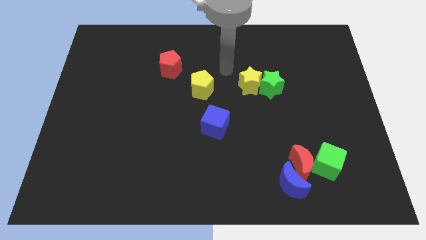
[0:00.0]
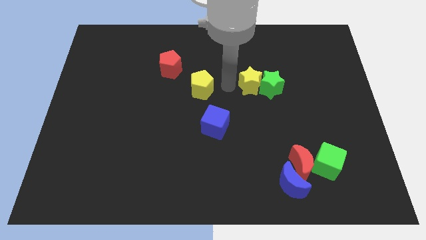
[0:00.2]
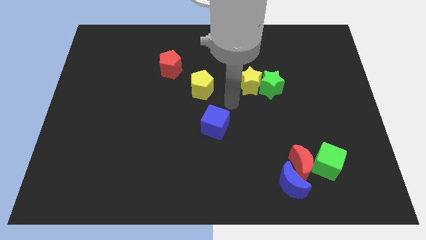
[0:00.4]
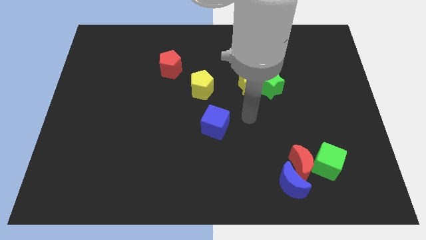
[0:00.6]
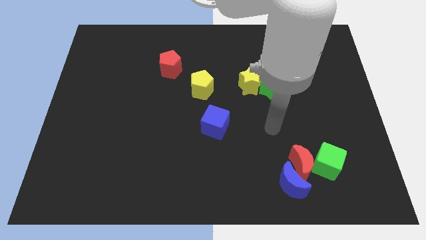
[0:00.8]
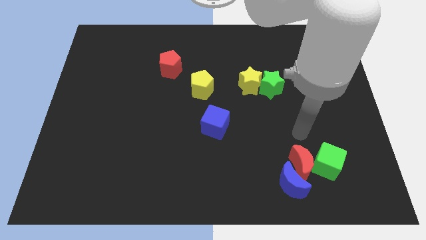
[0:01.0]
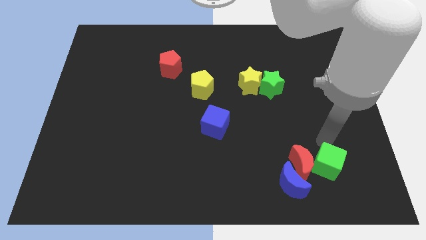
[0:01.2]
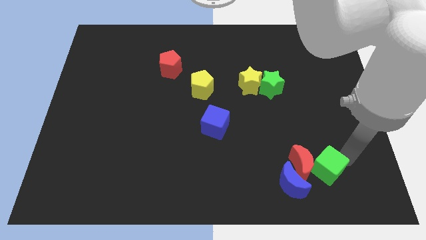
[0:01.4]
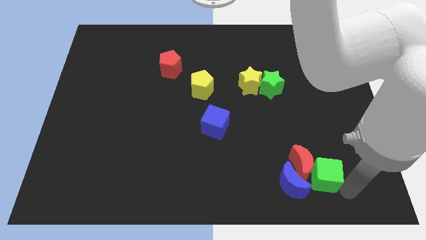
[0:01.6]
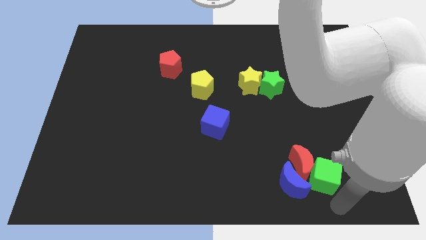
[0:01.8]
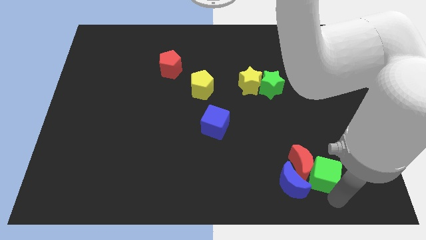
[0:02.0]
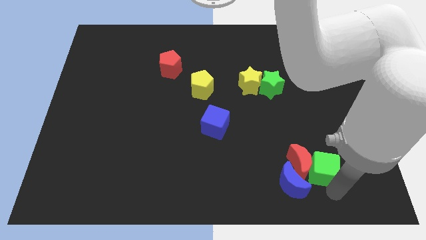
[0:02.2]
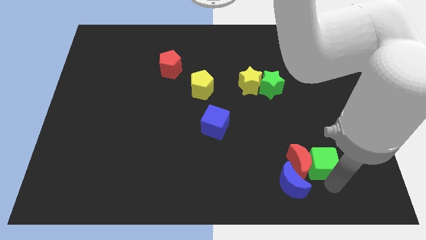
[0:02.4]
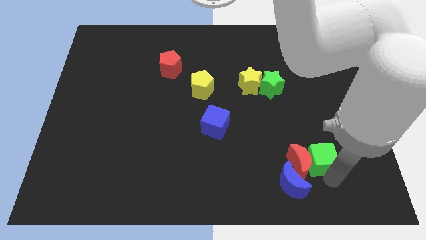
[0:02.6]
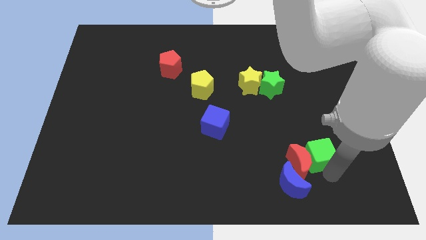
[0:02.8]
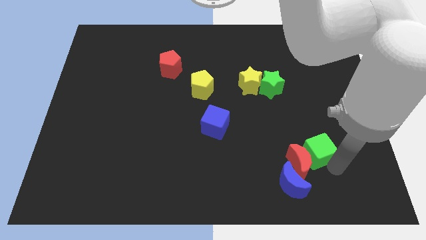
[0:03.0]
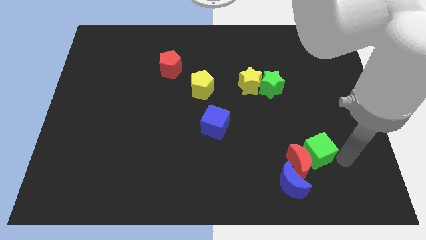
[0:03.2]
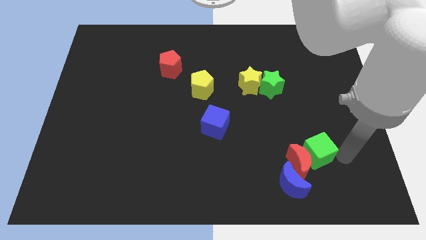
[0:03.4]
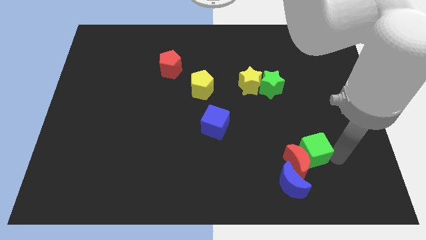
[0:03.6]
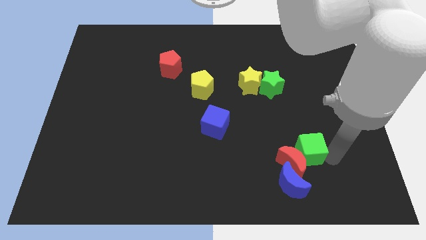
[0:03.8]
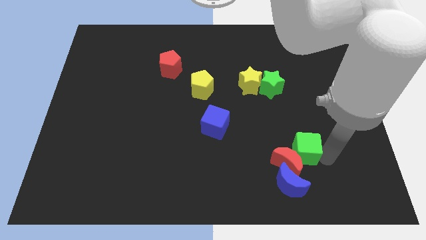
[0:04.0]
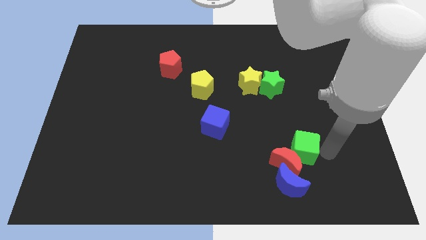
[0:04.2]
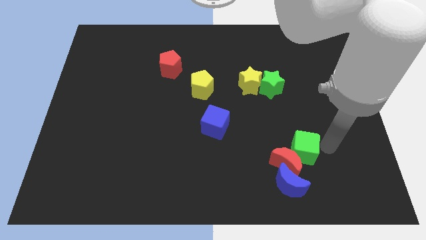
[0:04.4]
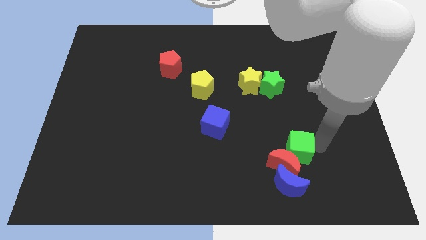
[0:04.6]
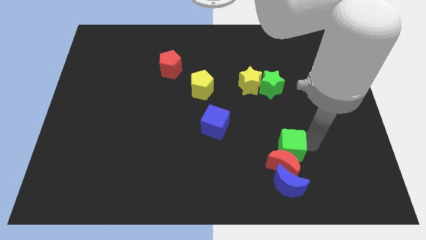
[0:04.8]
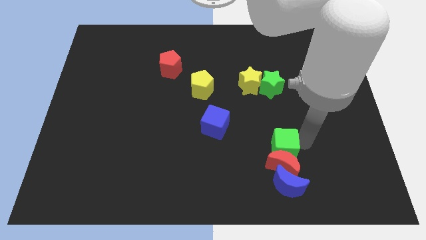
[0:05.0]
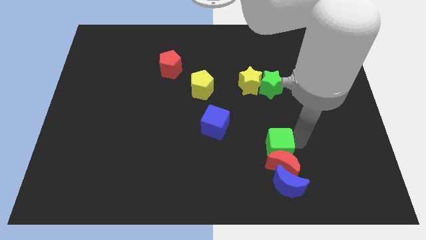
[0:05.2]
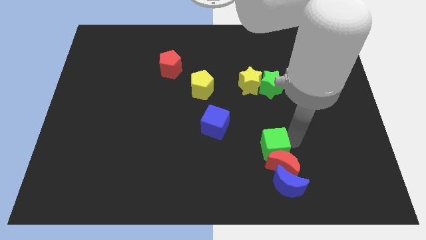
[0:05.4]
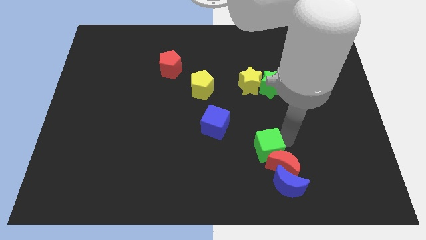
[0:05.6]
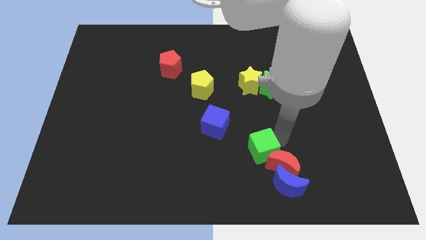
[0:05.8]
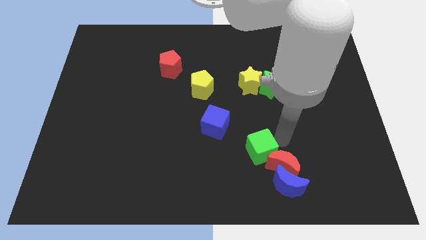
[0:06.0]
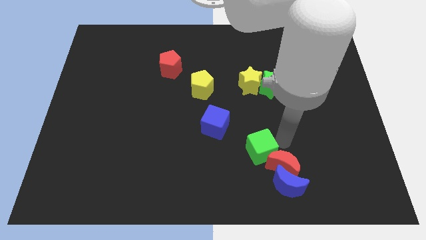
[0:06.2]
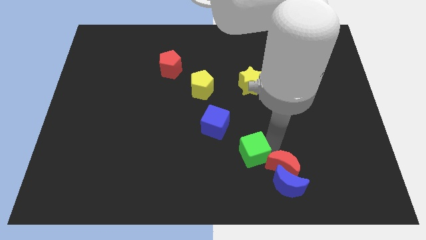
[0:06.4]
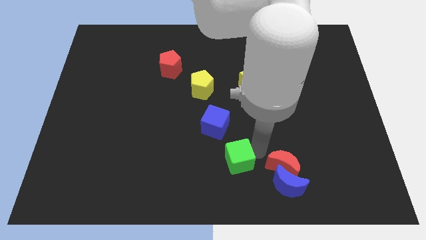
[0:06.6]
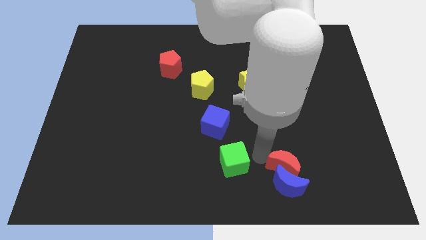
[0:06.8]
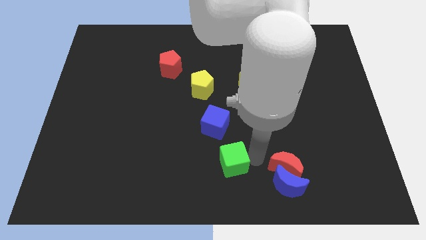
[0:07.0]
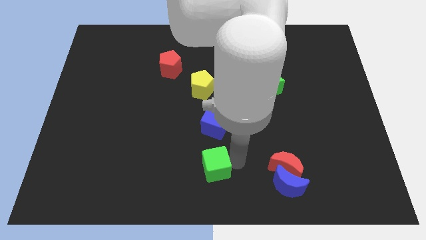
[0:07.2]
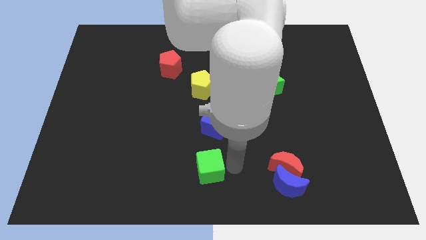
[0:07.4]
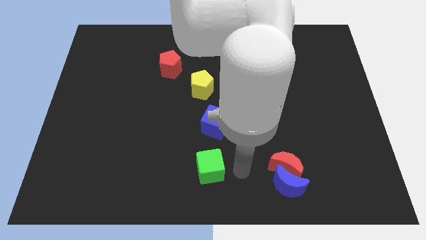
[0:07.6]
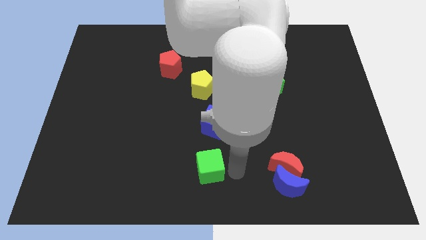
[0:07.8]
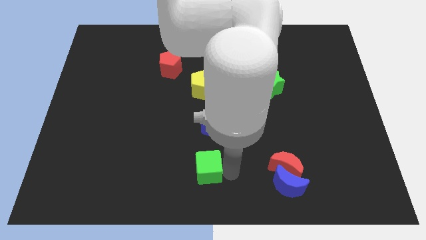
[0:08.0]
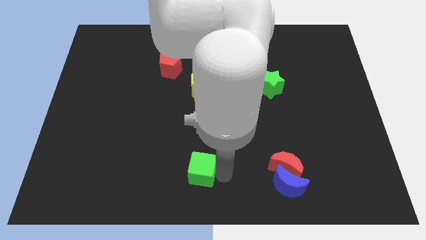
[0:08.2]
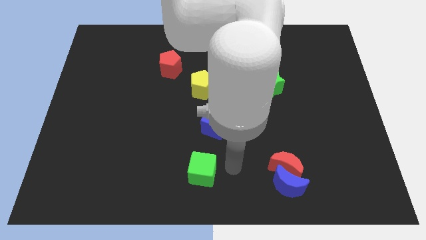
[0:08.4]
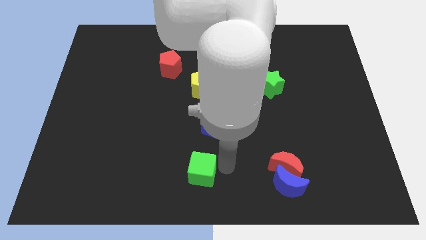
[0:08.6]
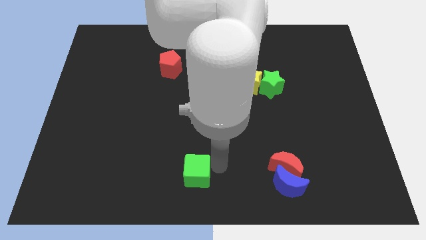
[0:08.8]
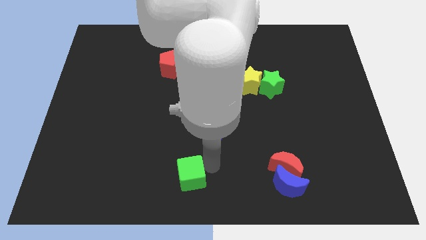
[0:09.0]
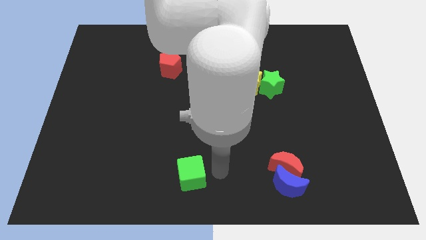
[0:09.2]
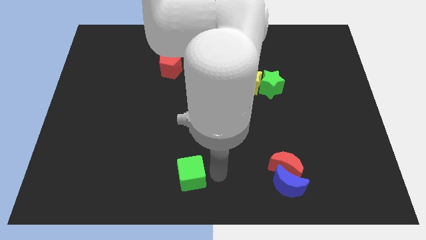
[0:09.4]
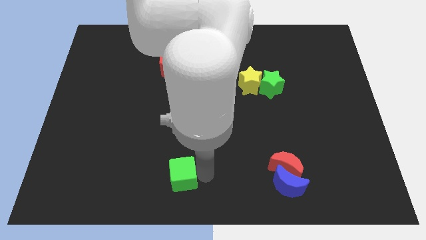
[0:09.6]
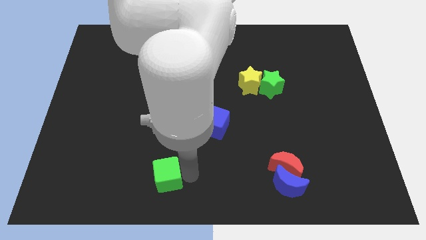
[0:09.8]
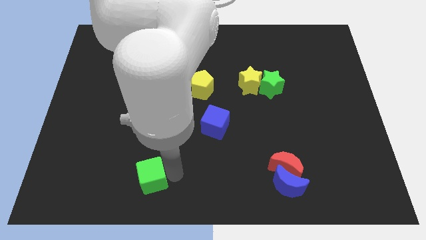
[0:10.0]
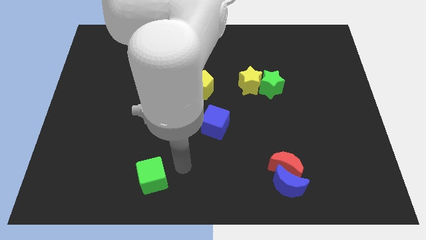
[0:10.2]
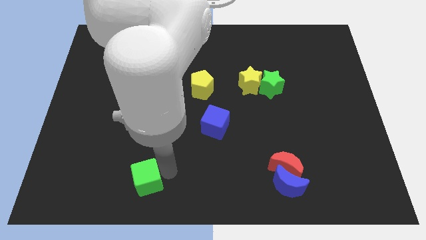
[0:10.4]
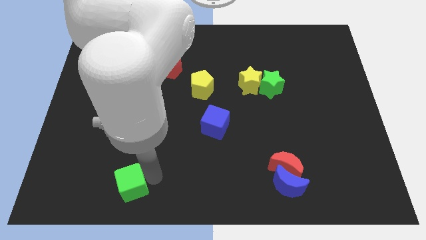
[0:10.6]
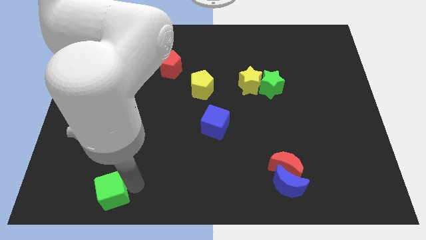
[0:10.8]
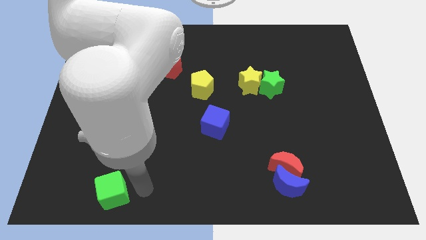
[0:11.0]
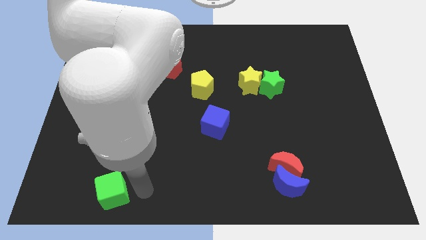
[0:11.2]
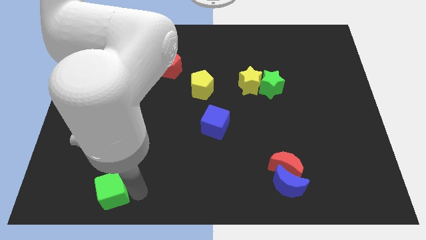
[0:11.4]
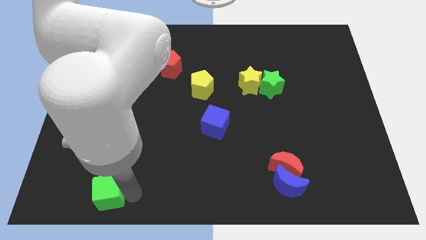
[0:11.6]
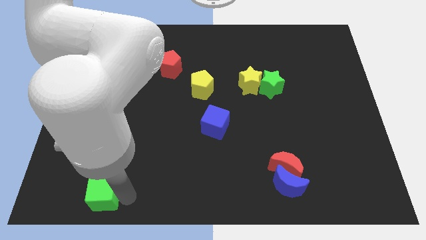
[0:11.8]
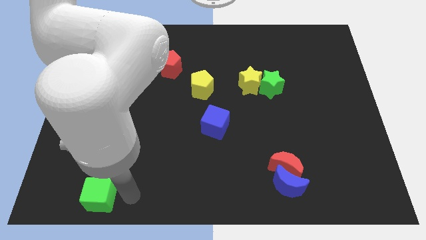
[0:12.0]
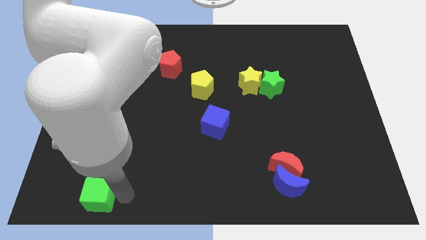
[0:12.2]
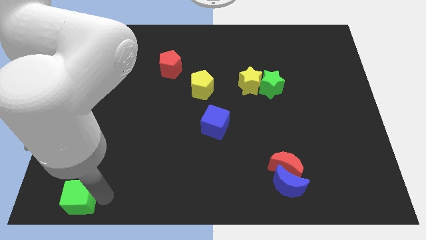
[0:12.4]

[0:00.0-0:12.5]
move the green cube to the bottom left
